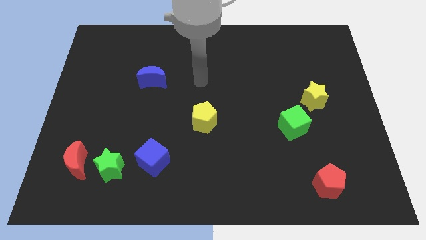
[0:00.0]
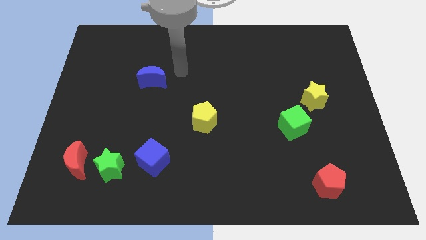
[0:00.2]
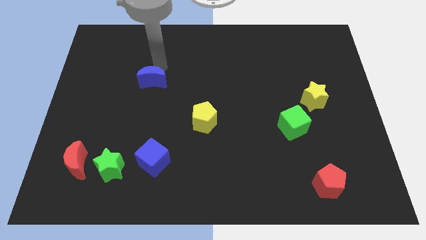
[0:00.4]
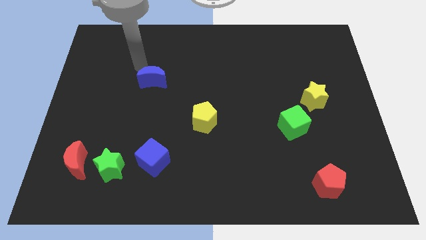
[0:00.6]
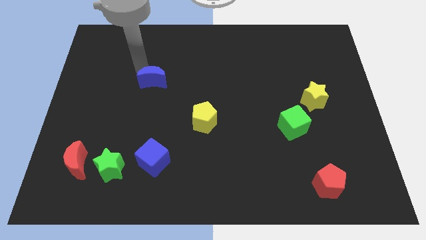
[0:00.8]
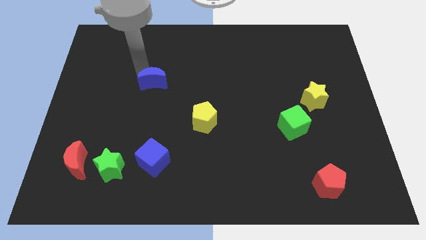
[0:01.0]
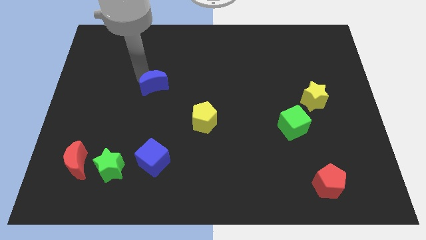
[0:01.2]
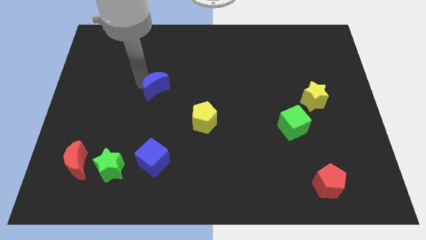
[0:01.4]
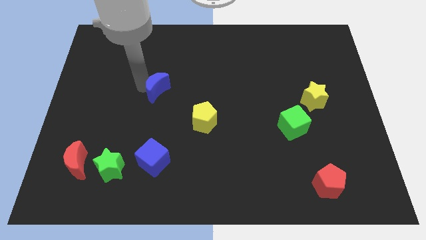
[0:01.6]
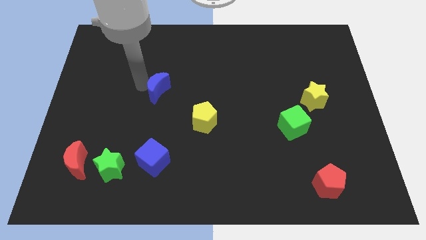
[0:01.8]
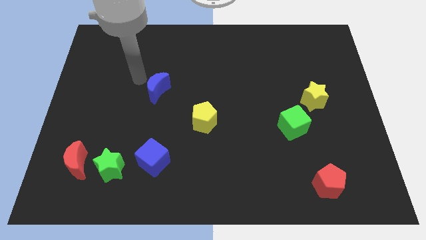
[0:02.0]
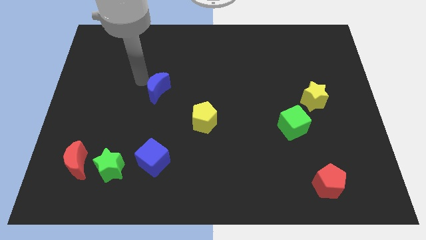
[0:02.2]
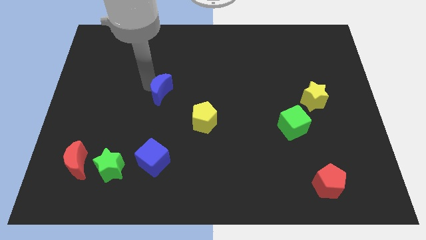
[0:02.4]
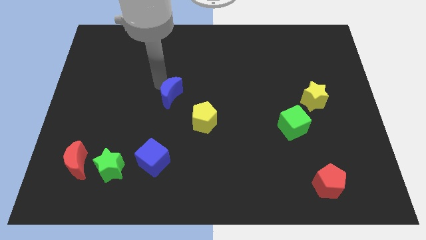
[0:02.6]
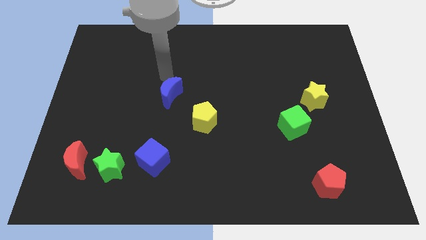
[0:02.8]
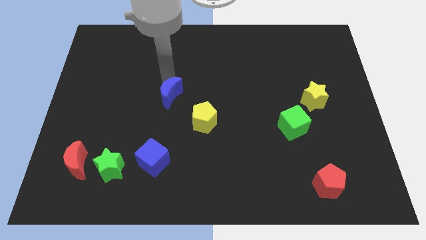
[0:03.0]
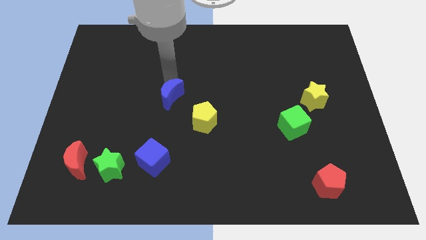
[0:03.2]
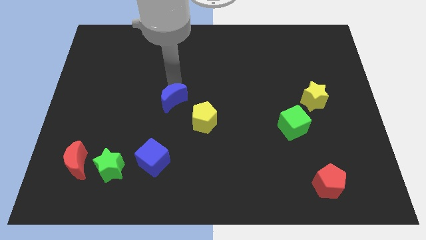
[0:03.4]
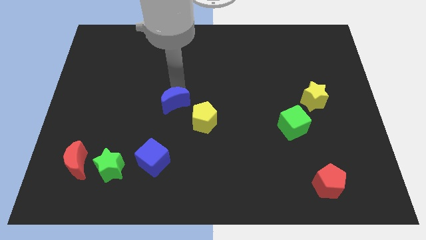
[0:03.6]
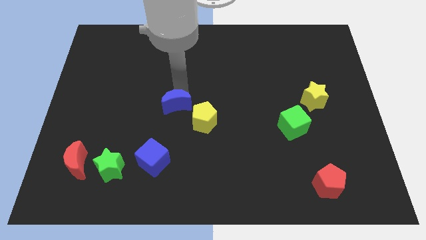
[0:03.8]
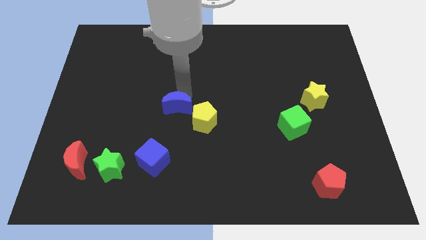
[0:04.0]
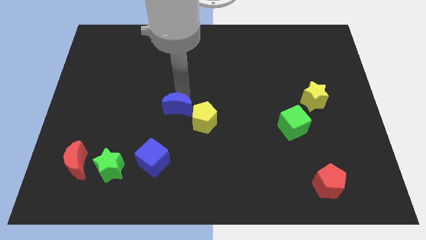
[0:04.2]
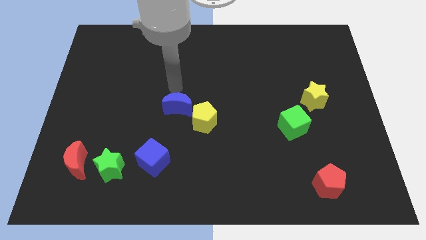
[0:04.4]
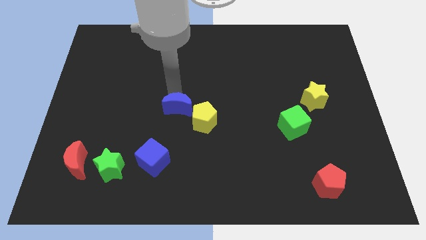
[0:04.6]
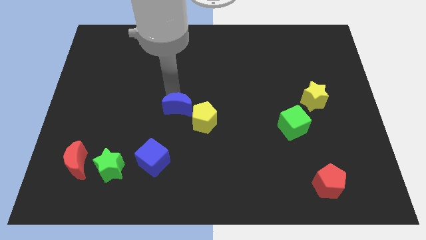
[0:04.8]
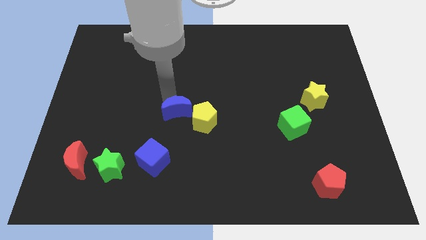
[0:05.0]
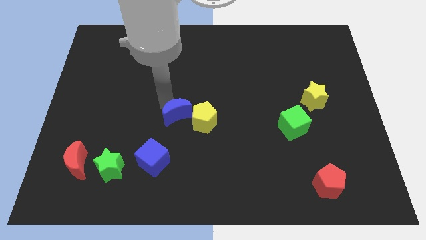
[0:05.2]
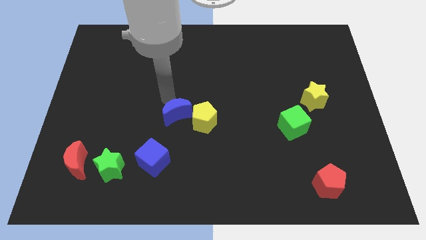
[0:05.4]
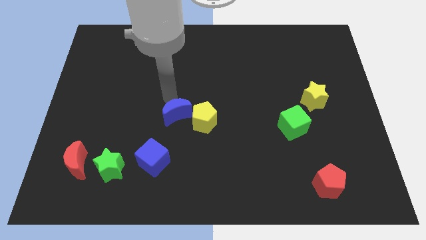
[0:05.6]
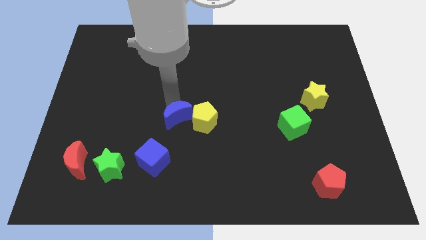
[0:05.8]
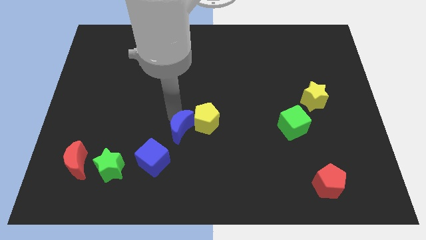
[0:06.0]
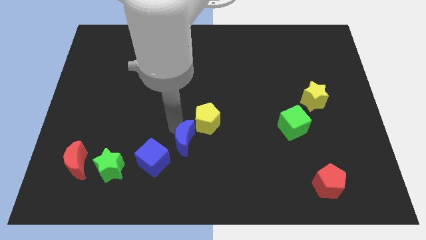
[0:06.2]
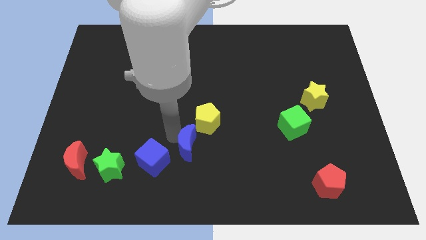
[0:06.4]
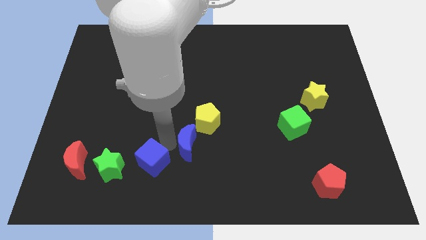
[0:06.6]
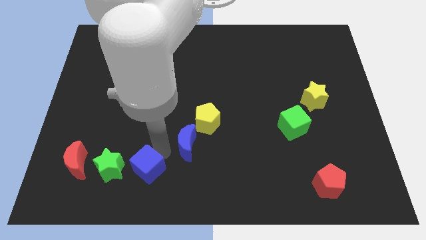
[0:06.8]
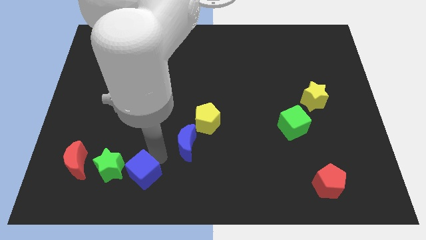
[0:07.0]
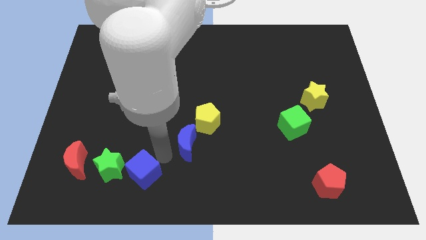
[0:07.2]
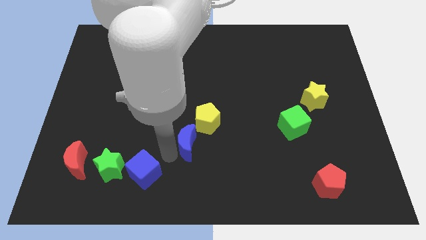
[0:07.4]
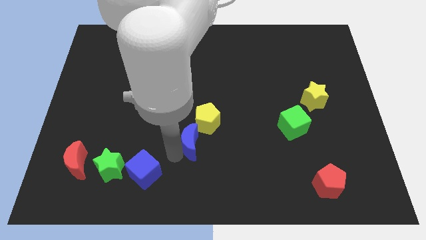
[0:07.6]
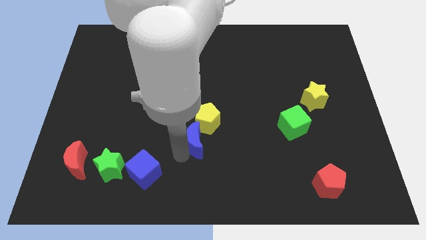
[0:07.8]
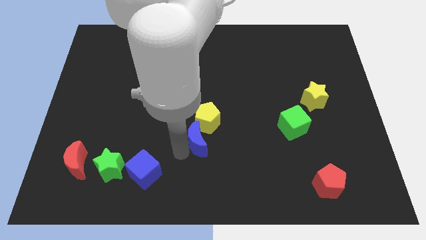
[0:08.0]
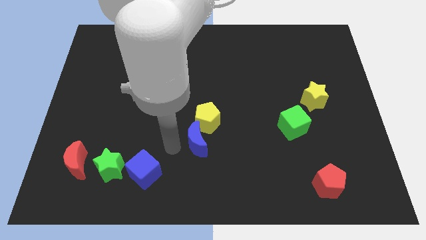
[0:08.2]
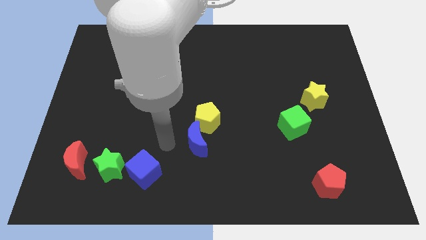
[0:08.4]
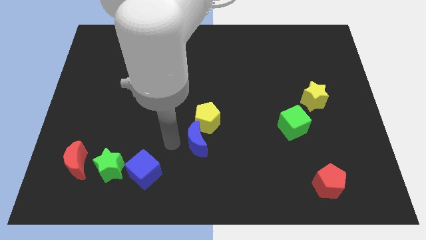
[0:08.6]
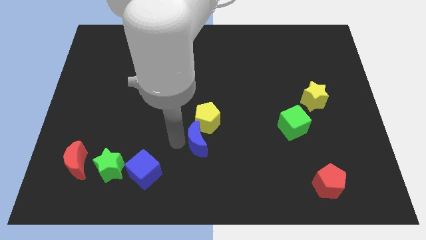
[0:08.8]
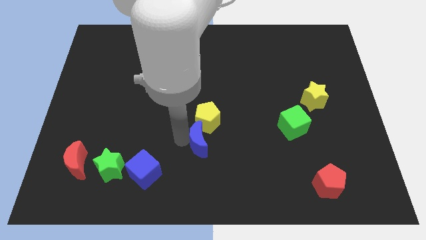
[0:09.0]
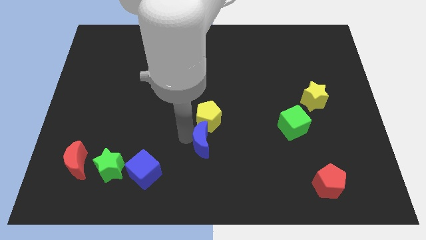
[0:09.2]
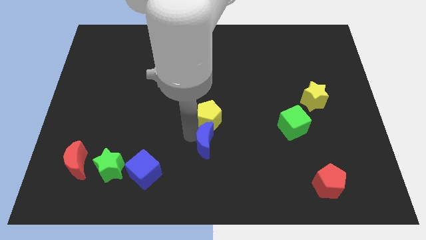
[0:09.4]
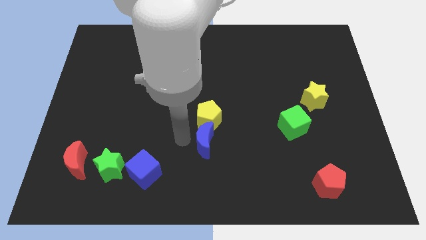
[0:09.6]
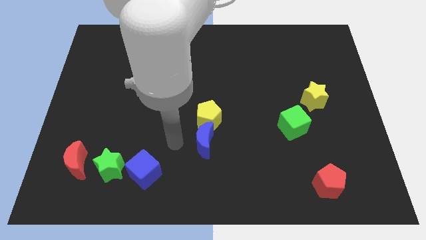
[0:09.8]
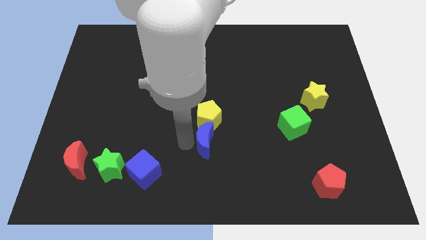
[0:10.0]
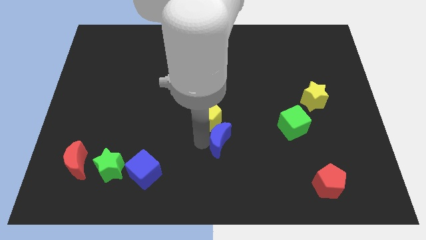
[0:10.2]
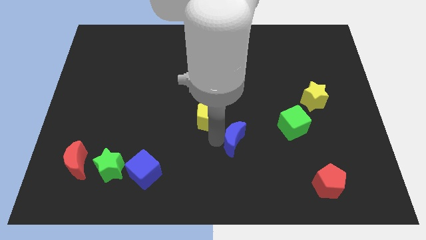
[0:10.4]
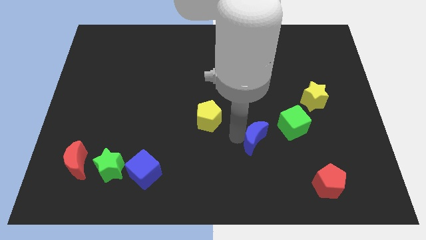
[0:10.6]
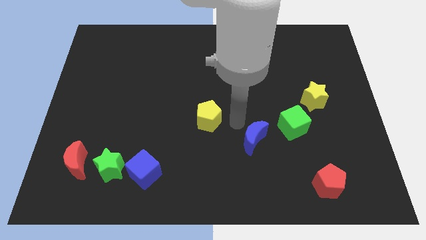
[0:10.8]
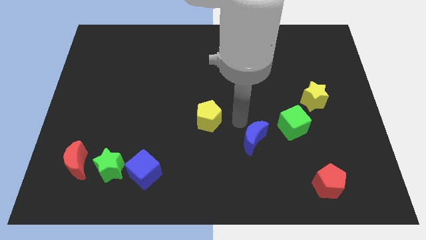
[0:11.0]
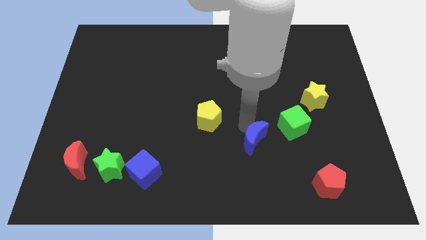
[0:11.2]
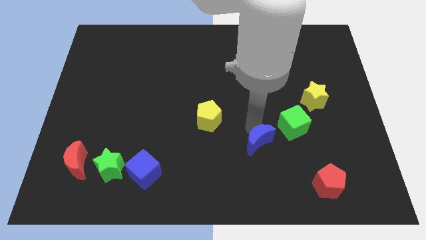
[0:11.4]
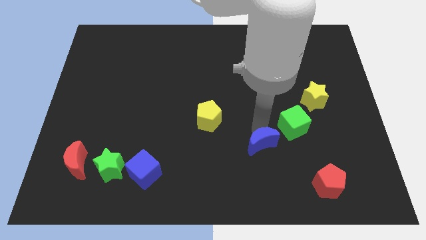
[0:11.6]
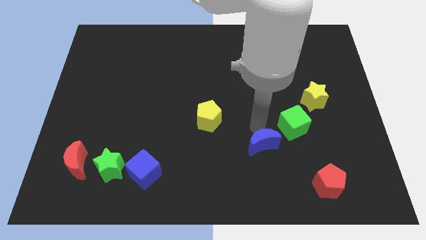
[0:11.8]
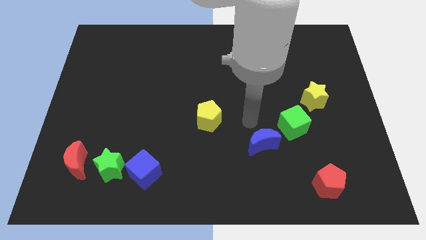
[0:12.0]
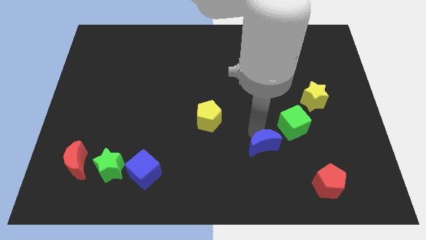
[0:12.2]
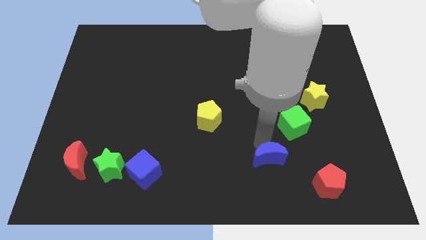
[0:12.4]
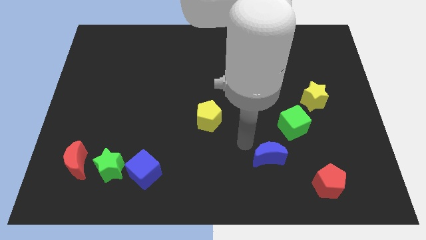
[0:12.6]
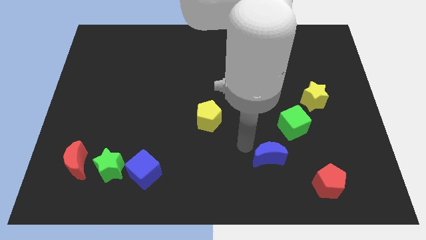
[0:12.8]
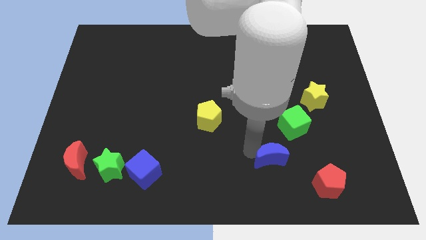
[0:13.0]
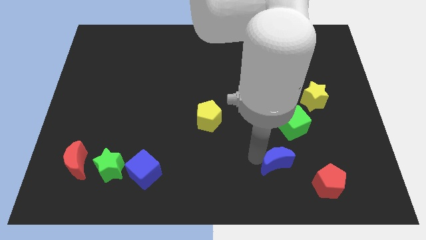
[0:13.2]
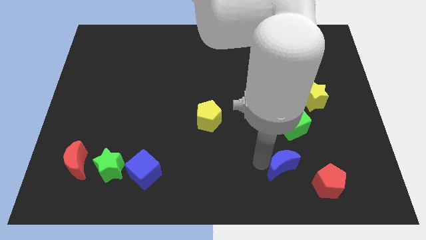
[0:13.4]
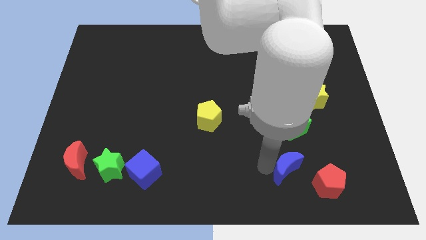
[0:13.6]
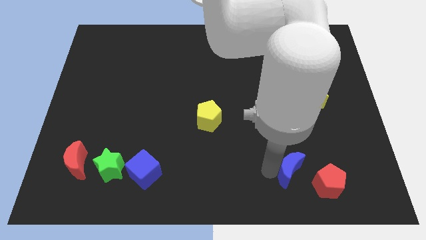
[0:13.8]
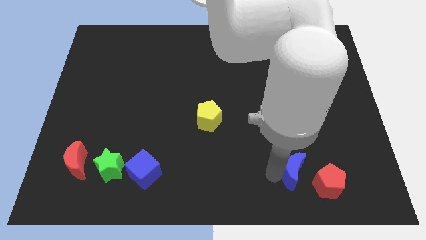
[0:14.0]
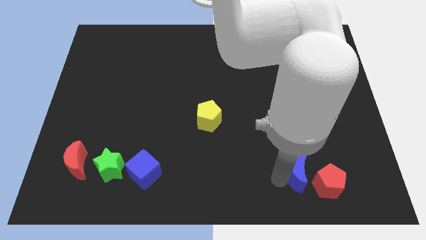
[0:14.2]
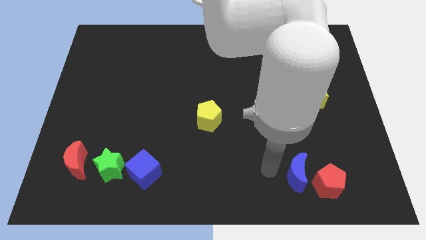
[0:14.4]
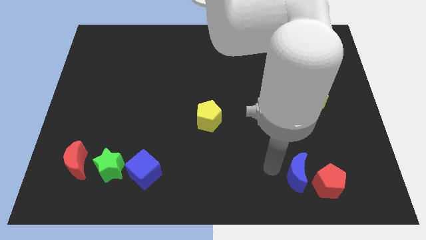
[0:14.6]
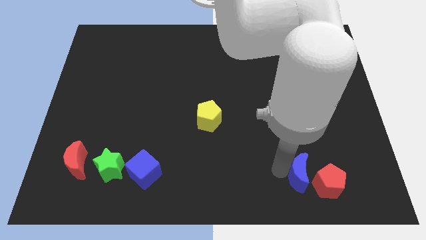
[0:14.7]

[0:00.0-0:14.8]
move the blue moon close to the red pentagon
